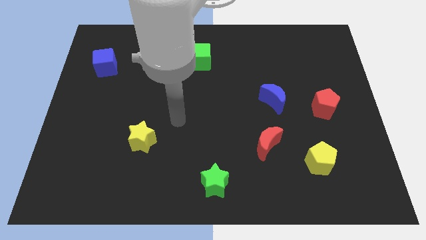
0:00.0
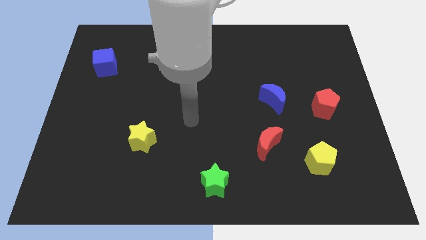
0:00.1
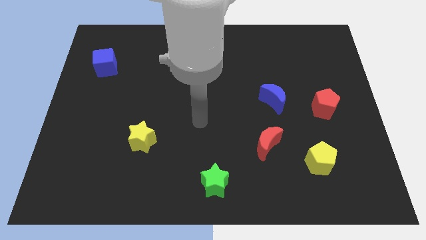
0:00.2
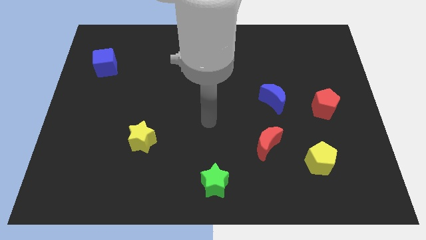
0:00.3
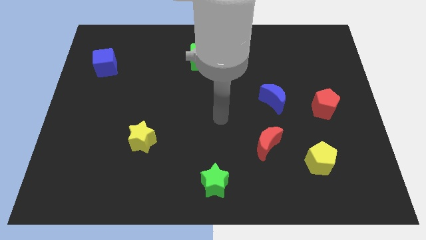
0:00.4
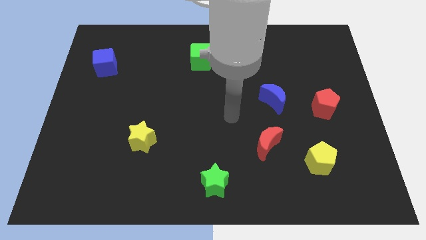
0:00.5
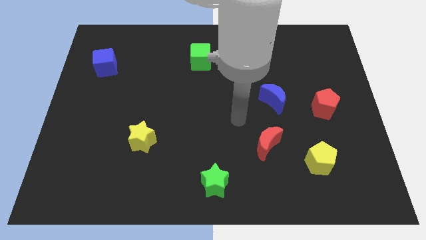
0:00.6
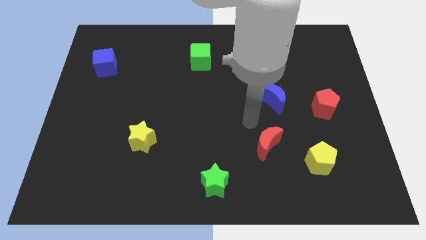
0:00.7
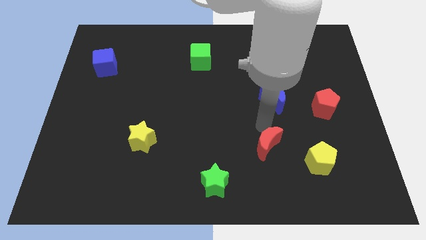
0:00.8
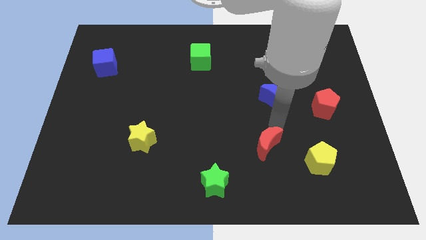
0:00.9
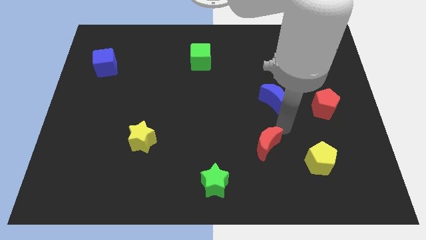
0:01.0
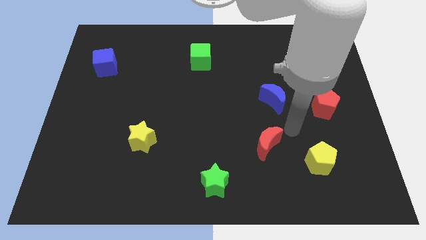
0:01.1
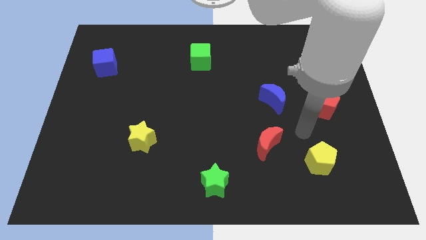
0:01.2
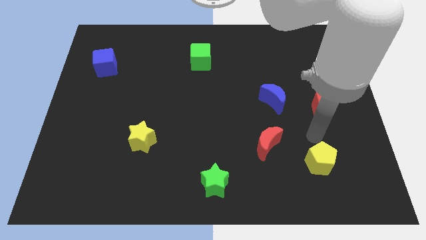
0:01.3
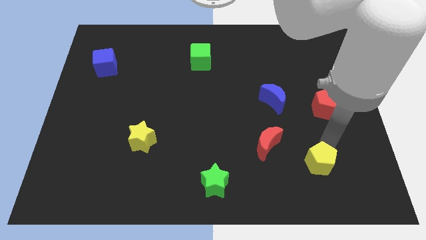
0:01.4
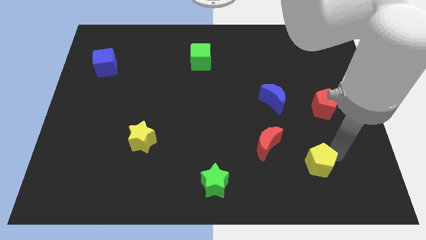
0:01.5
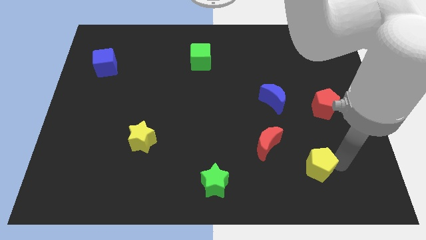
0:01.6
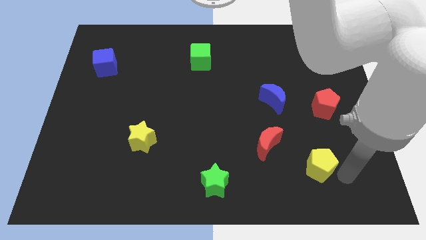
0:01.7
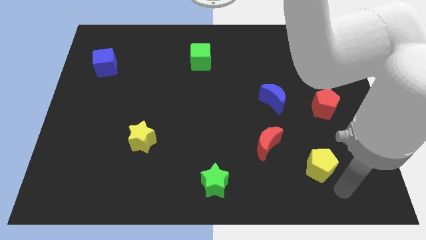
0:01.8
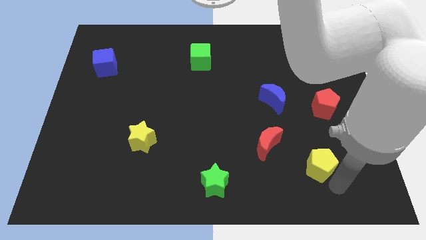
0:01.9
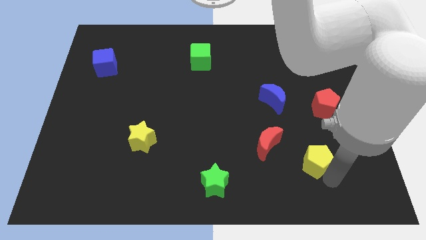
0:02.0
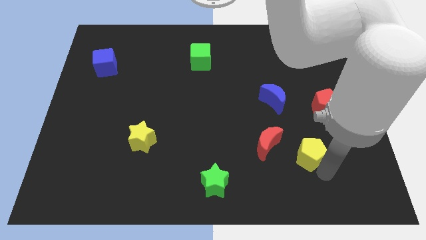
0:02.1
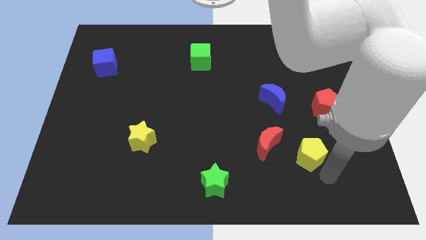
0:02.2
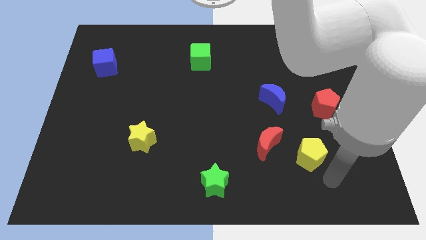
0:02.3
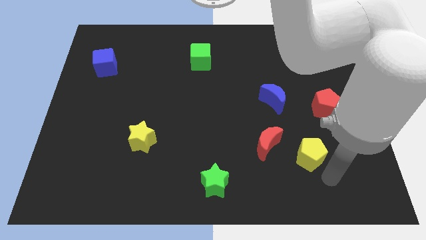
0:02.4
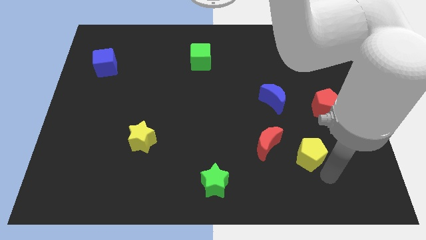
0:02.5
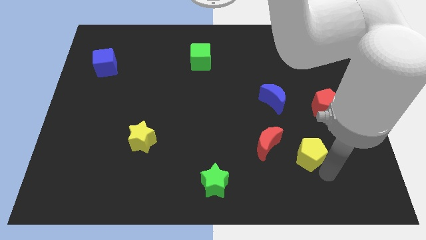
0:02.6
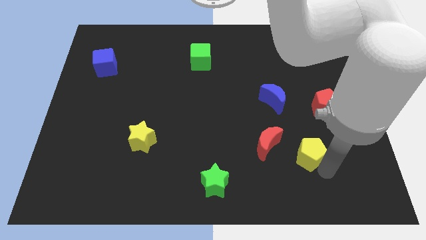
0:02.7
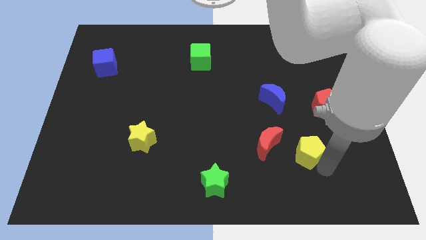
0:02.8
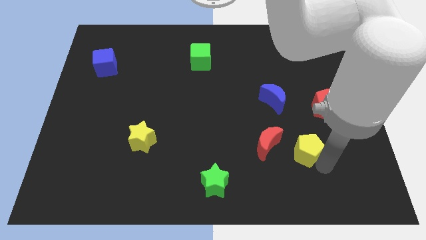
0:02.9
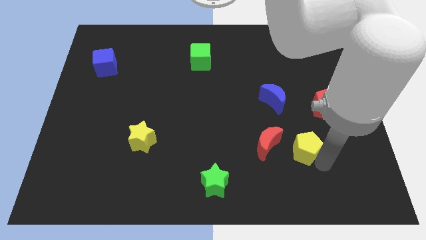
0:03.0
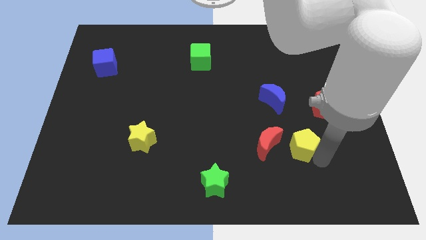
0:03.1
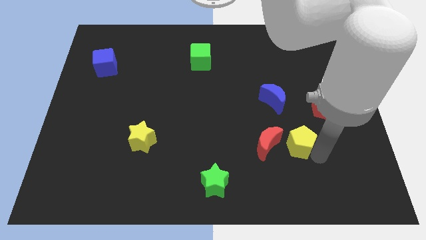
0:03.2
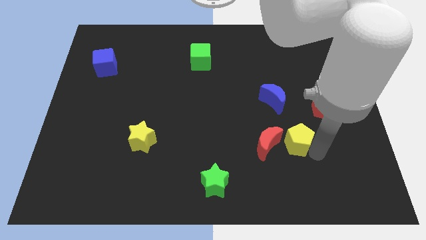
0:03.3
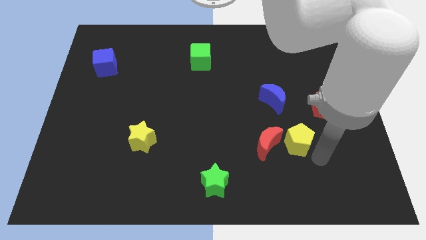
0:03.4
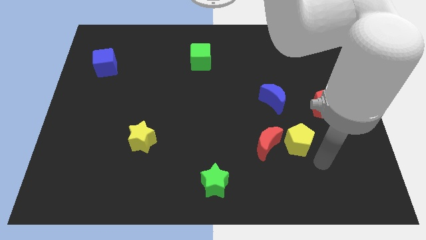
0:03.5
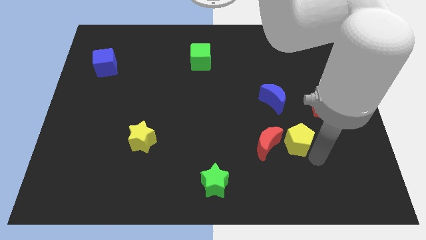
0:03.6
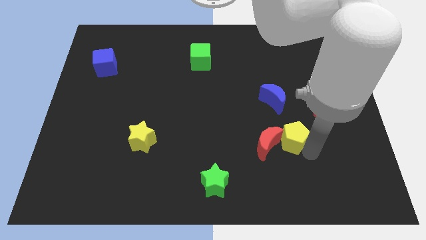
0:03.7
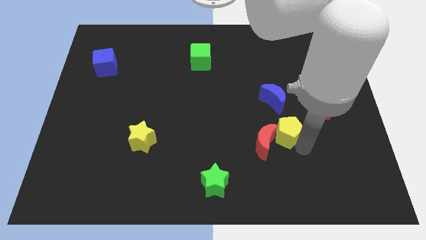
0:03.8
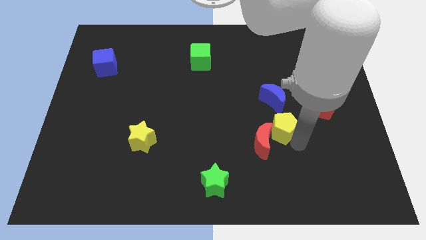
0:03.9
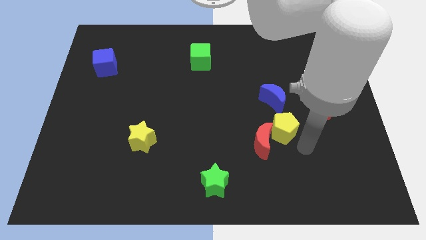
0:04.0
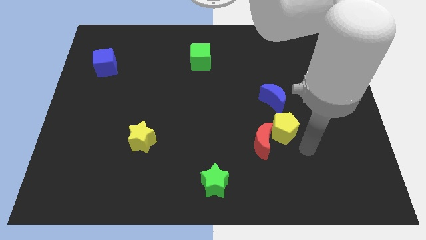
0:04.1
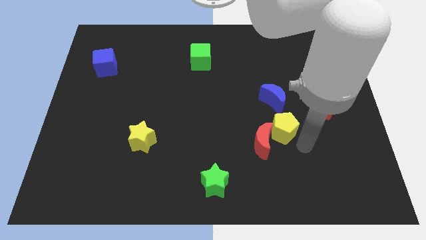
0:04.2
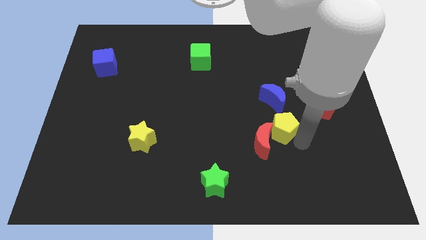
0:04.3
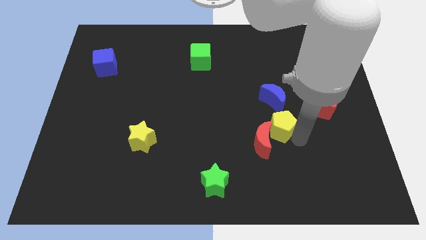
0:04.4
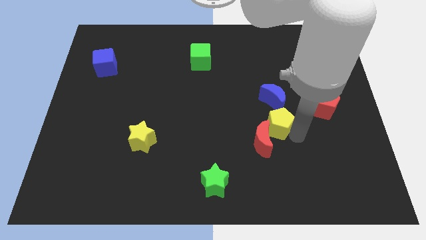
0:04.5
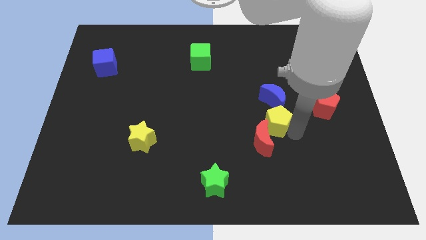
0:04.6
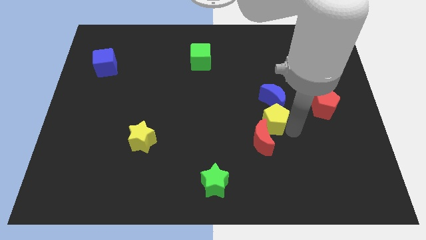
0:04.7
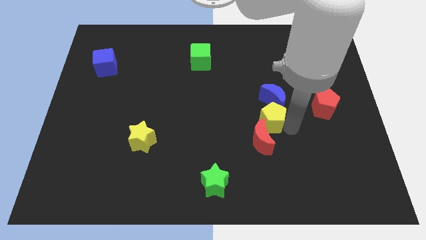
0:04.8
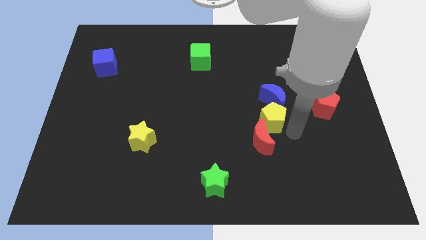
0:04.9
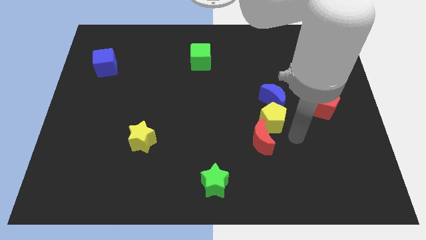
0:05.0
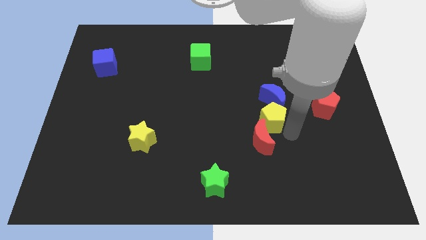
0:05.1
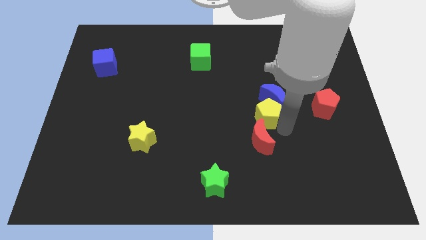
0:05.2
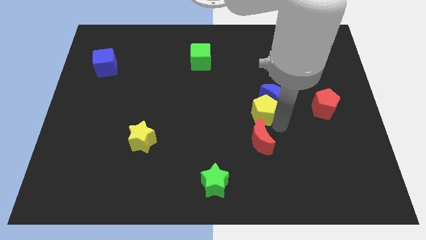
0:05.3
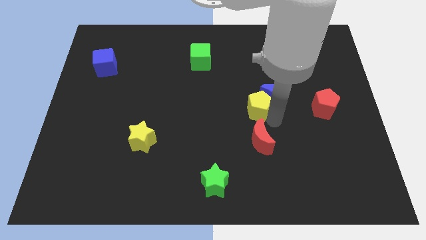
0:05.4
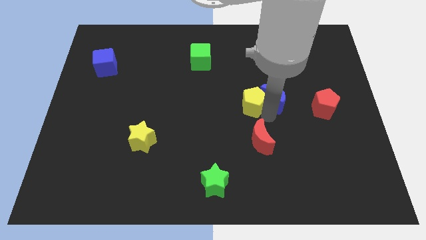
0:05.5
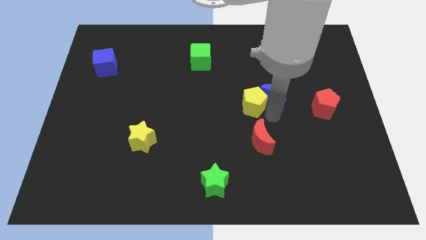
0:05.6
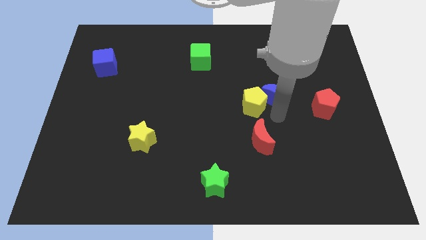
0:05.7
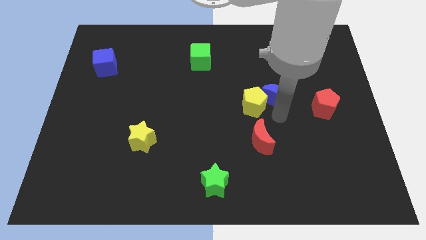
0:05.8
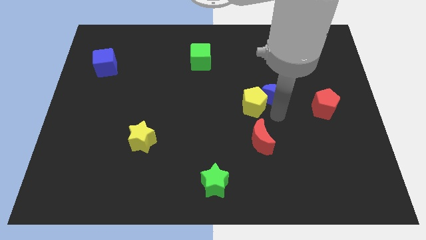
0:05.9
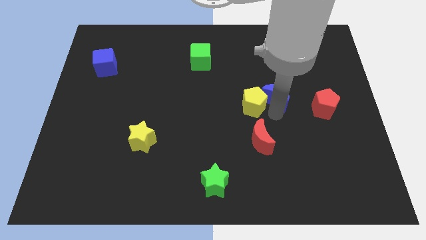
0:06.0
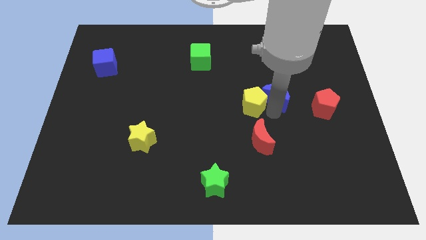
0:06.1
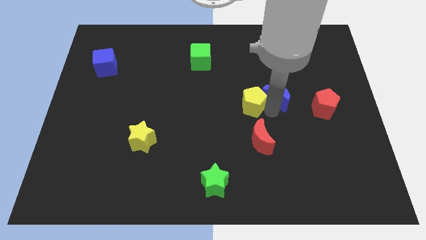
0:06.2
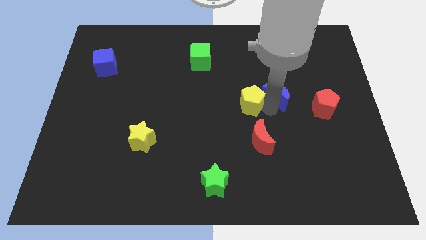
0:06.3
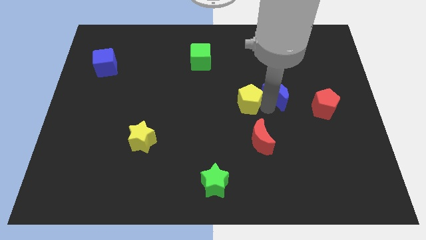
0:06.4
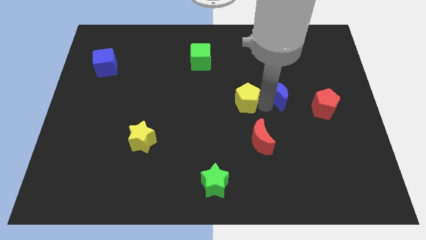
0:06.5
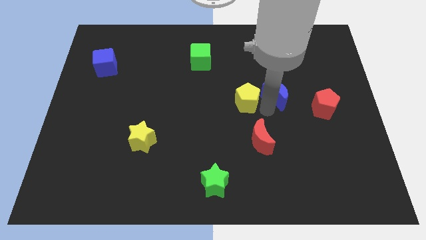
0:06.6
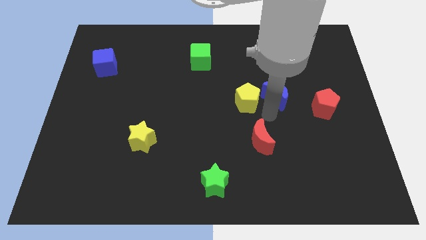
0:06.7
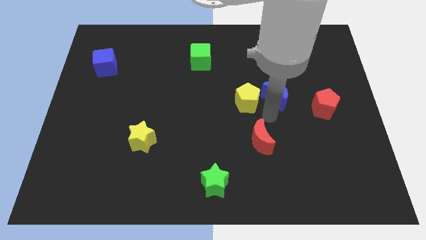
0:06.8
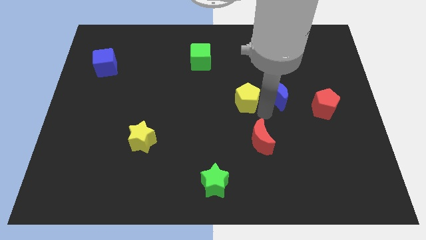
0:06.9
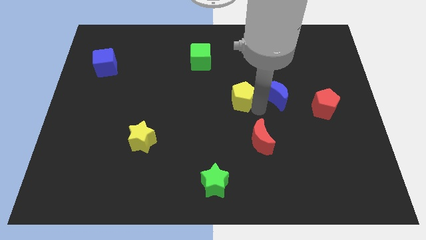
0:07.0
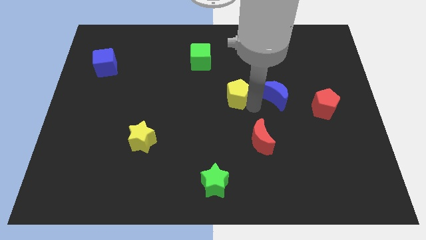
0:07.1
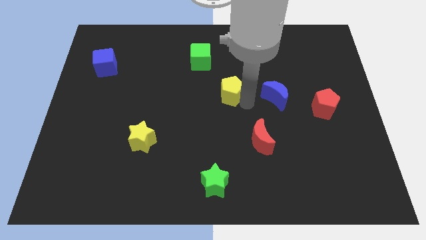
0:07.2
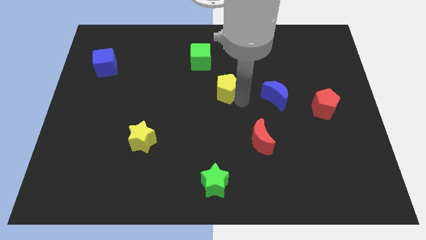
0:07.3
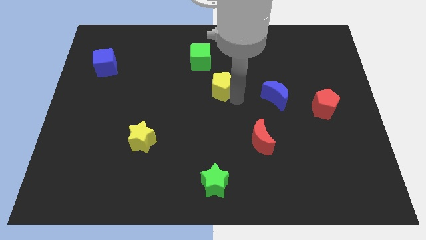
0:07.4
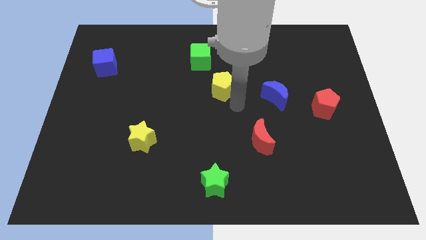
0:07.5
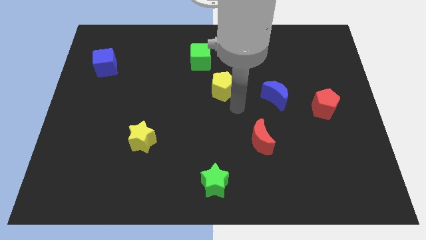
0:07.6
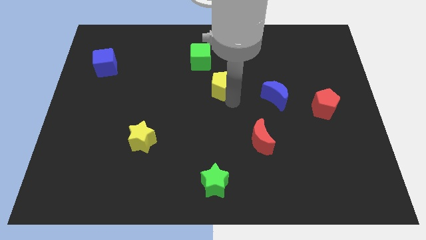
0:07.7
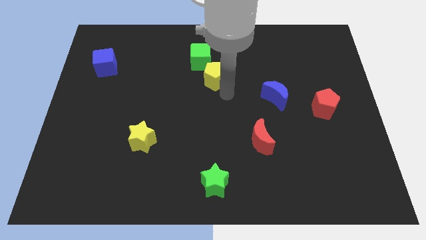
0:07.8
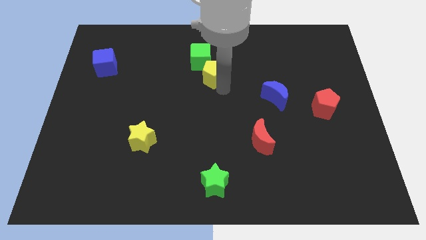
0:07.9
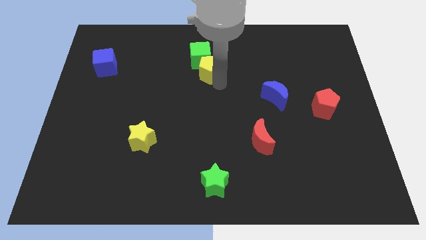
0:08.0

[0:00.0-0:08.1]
move the yellow pentagon towards the green cube
